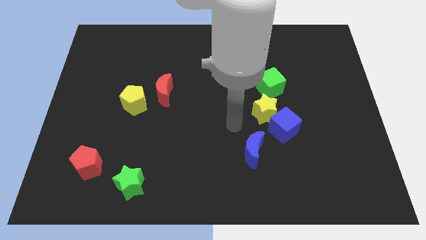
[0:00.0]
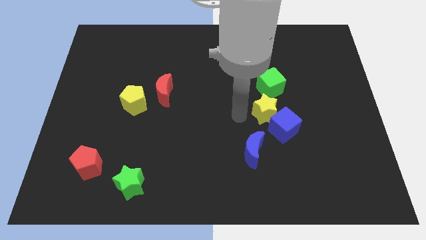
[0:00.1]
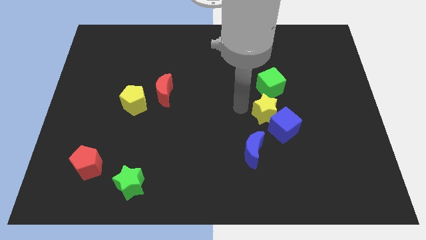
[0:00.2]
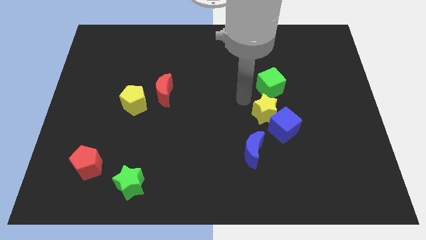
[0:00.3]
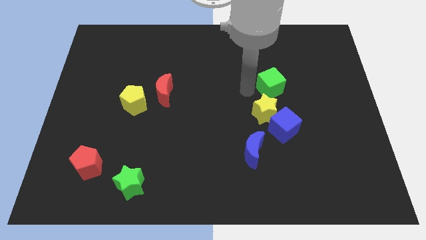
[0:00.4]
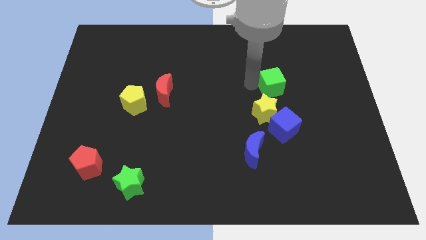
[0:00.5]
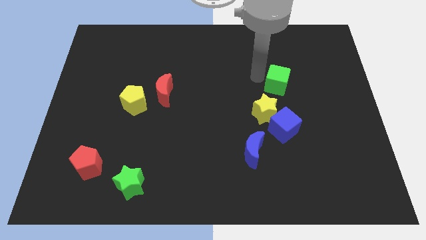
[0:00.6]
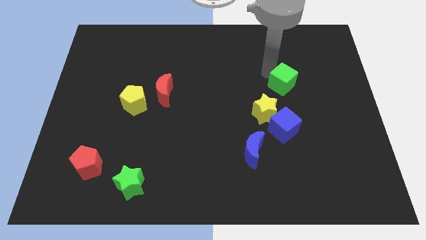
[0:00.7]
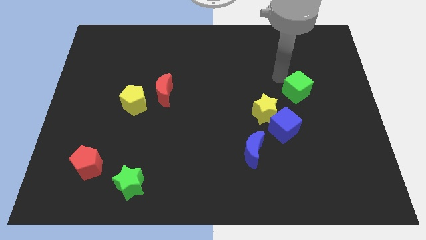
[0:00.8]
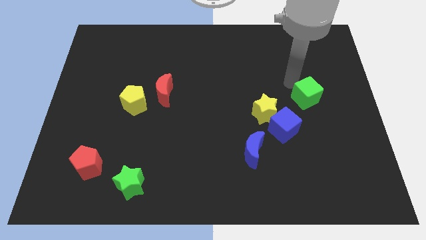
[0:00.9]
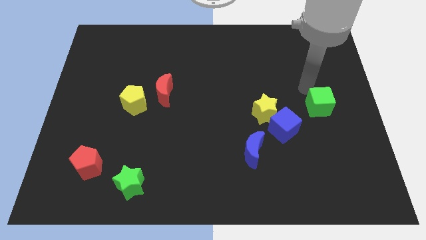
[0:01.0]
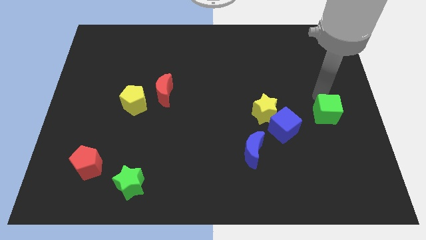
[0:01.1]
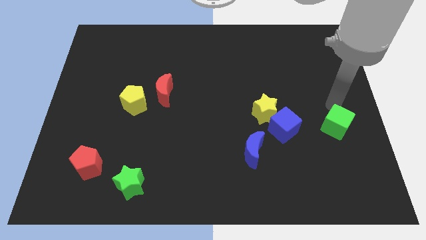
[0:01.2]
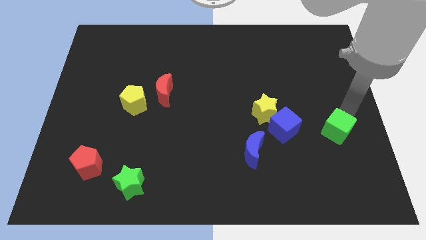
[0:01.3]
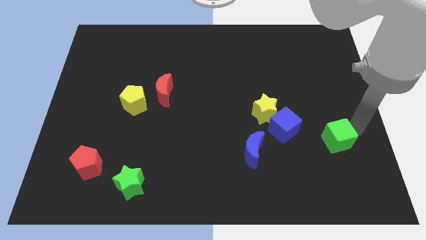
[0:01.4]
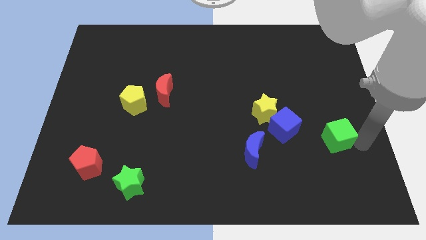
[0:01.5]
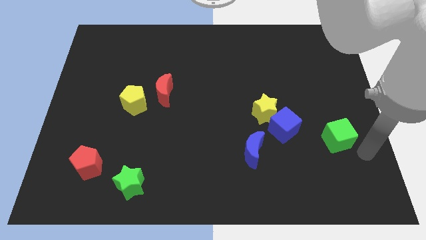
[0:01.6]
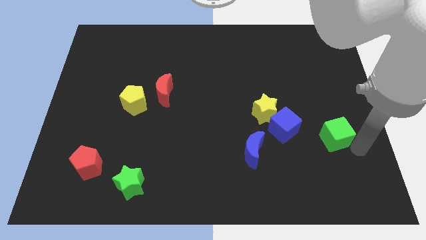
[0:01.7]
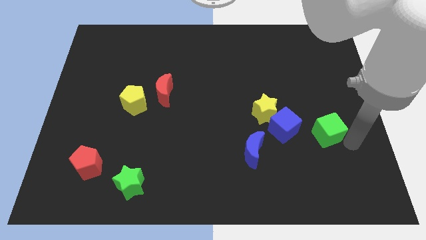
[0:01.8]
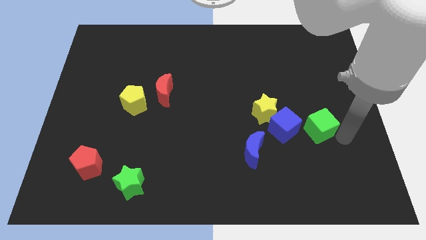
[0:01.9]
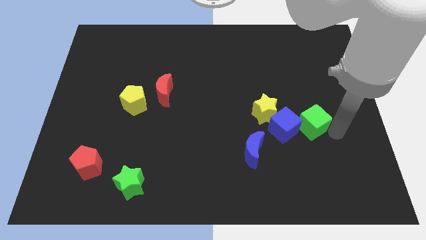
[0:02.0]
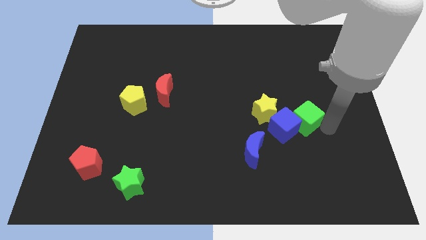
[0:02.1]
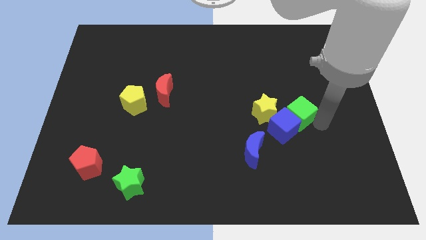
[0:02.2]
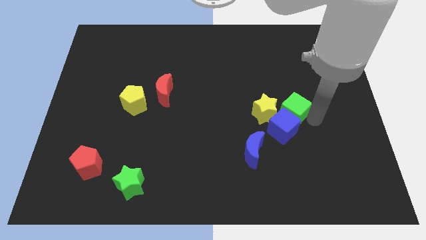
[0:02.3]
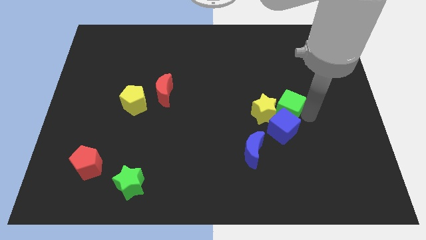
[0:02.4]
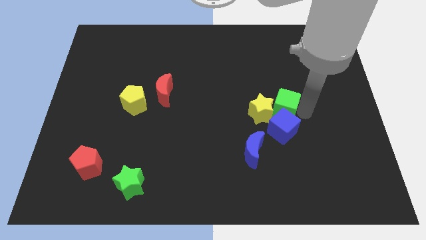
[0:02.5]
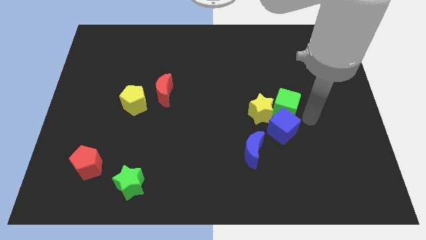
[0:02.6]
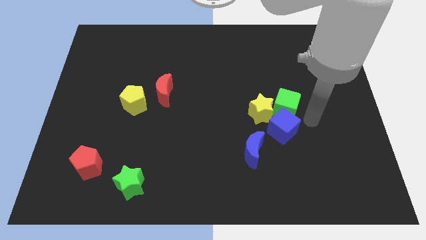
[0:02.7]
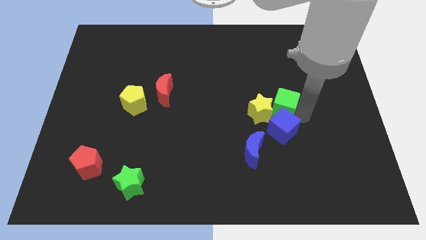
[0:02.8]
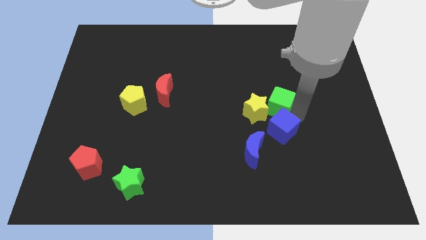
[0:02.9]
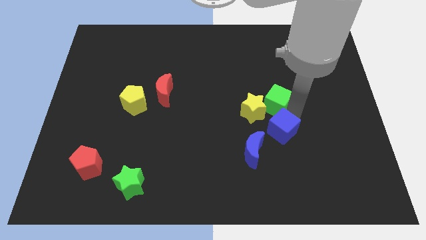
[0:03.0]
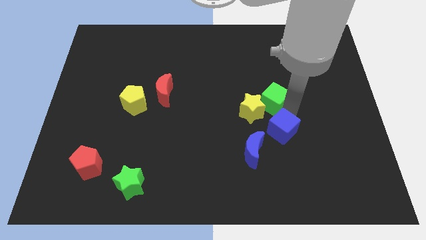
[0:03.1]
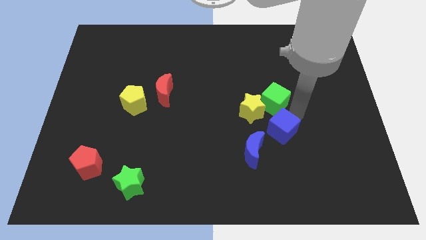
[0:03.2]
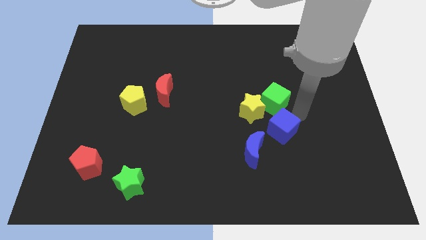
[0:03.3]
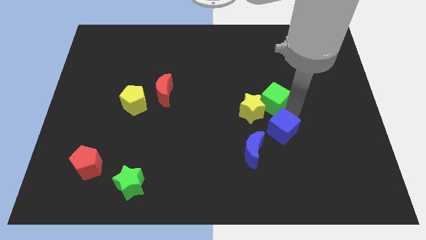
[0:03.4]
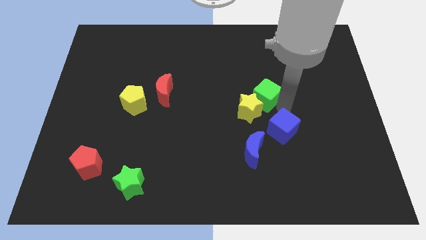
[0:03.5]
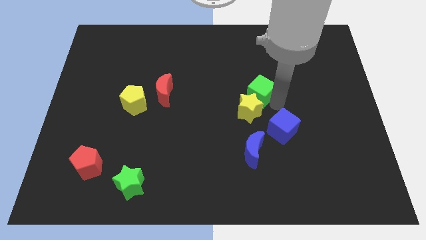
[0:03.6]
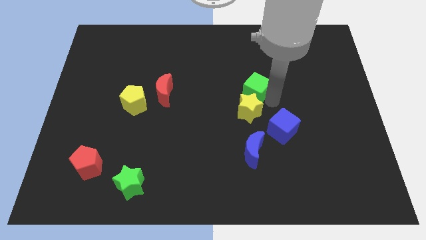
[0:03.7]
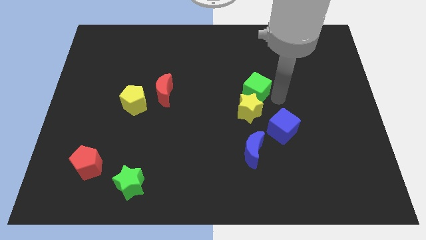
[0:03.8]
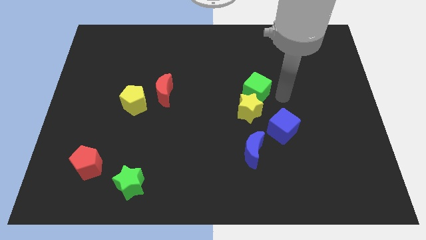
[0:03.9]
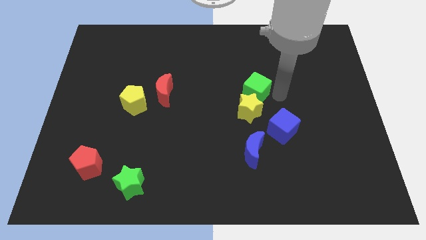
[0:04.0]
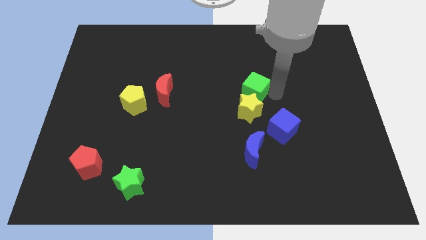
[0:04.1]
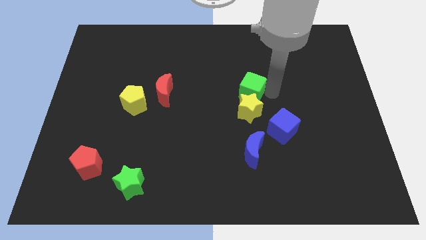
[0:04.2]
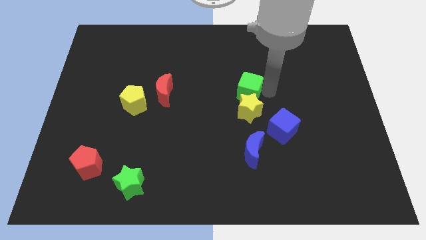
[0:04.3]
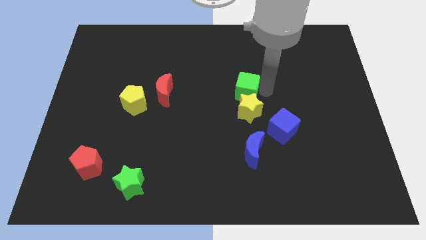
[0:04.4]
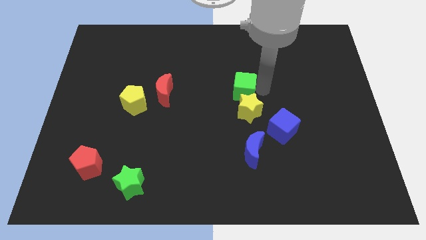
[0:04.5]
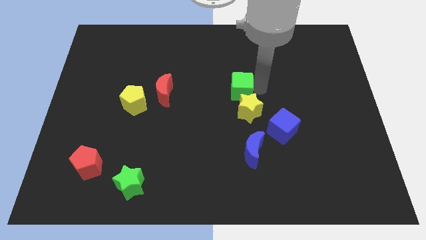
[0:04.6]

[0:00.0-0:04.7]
slightly slide the green cube left

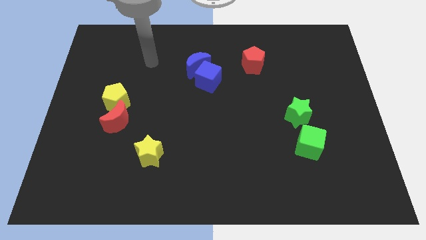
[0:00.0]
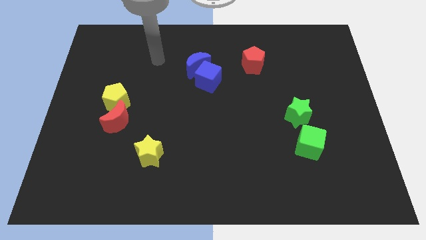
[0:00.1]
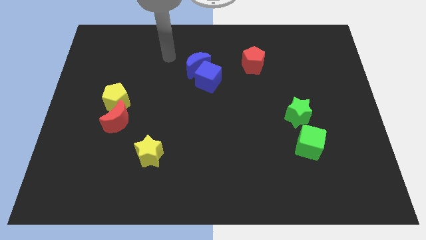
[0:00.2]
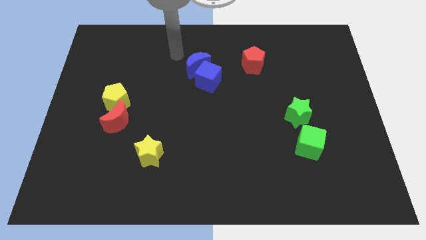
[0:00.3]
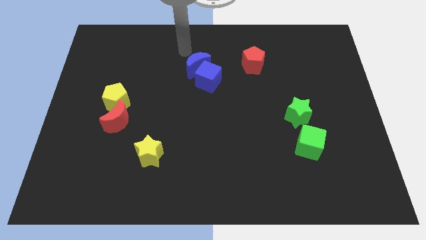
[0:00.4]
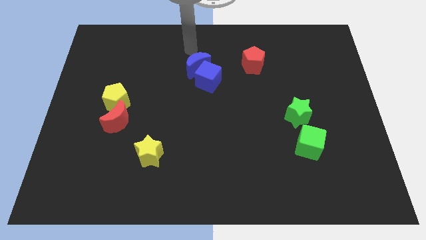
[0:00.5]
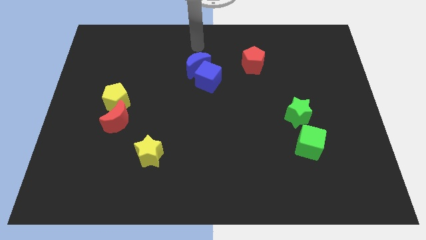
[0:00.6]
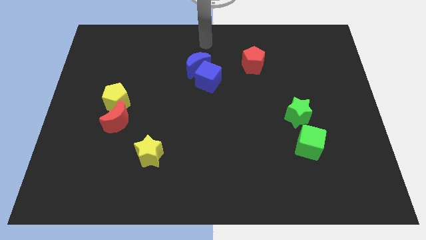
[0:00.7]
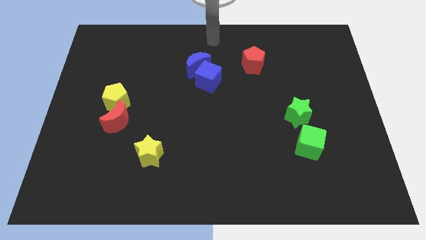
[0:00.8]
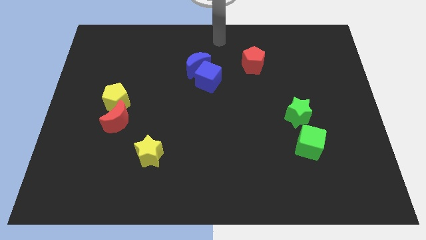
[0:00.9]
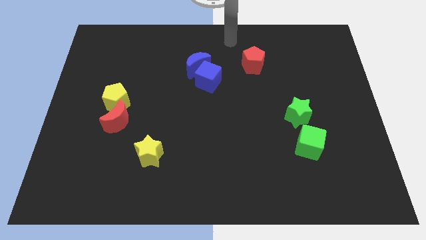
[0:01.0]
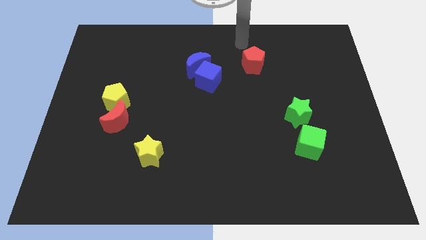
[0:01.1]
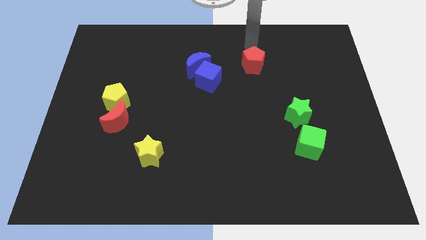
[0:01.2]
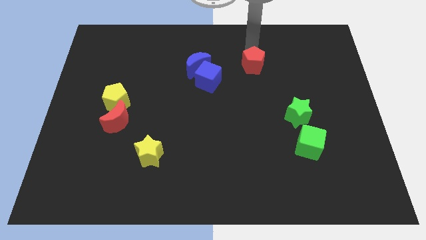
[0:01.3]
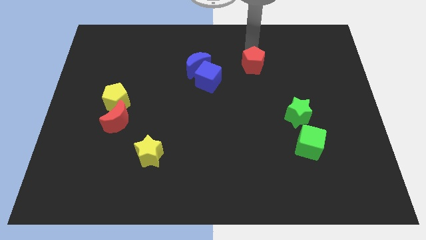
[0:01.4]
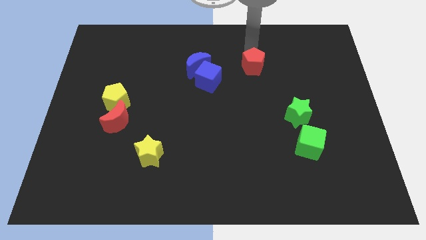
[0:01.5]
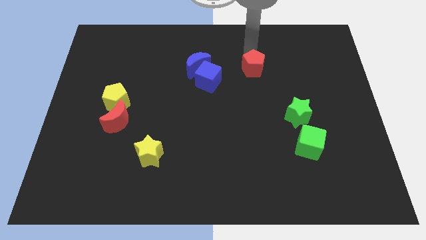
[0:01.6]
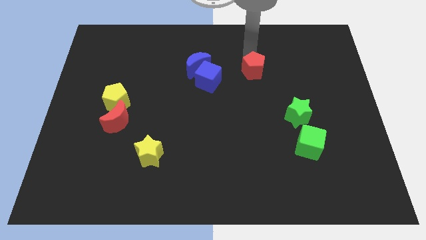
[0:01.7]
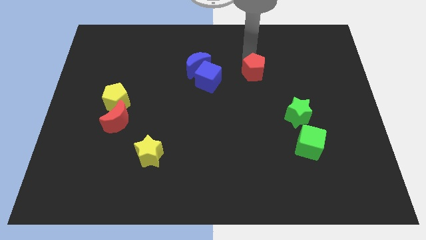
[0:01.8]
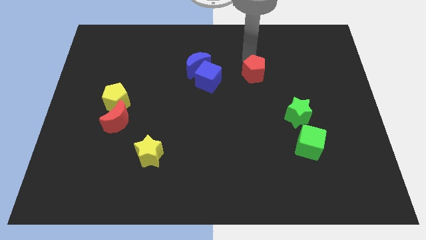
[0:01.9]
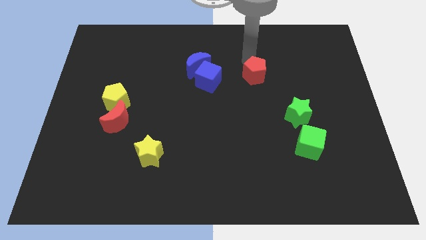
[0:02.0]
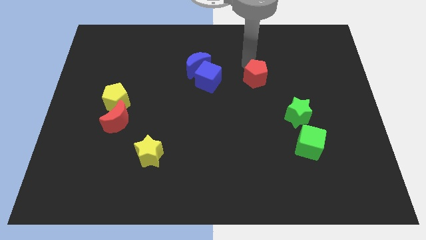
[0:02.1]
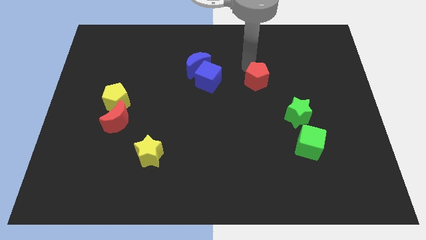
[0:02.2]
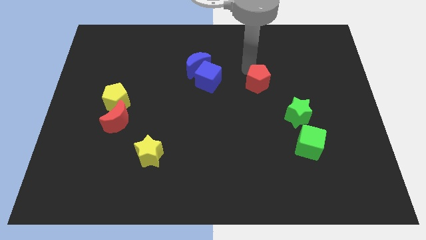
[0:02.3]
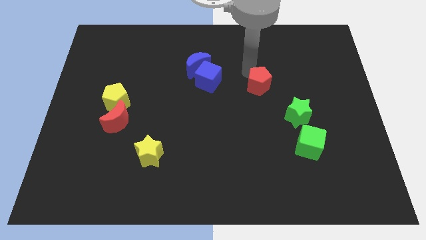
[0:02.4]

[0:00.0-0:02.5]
slightly slide the red pentagon down

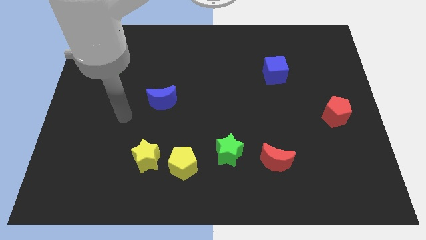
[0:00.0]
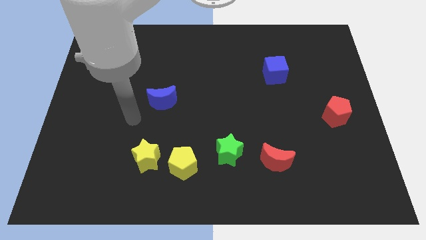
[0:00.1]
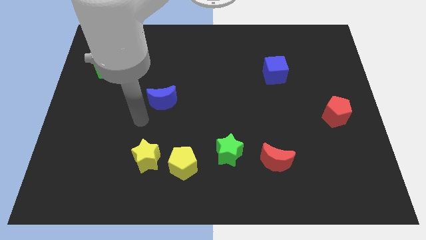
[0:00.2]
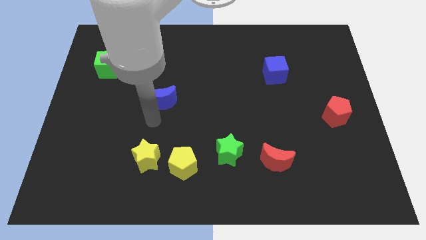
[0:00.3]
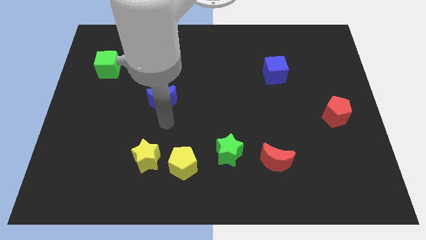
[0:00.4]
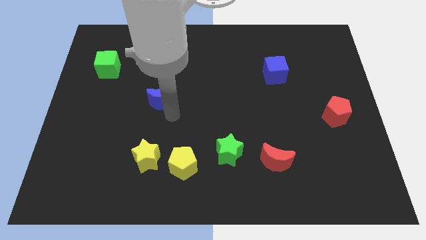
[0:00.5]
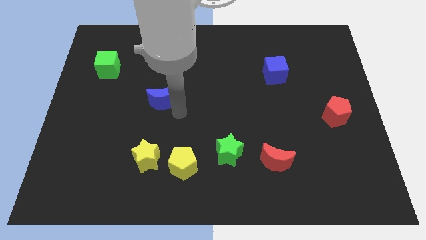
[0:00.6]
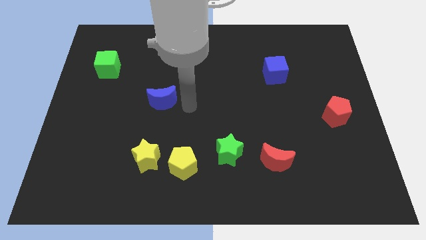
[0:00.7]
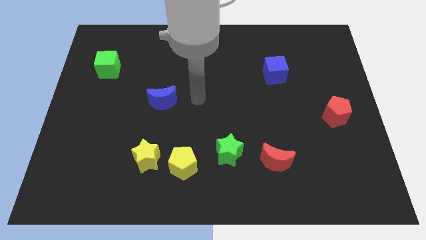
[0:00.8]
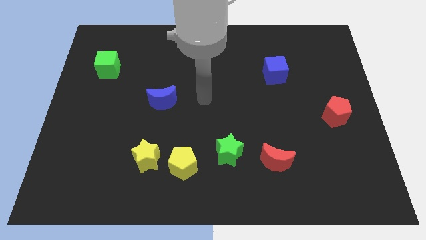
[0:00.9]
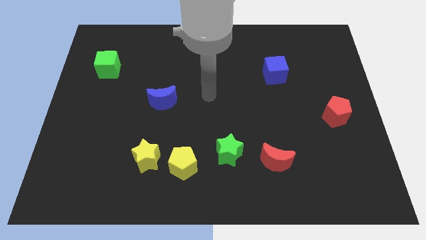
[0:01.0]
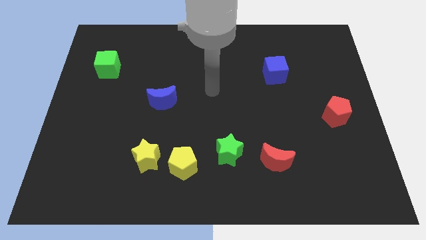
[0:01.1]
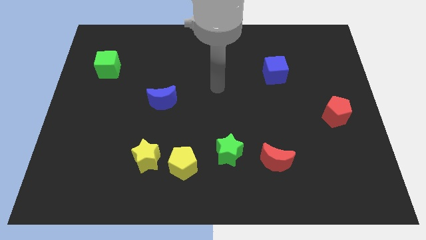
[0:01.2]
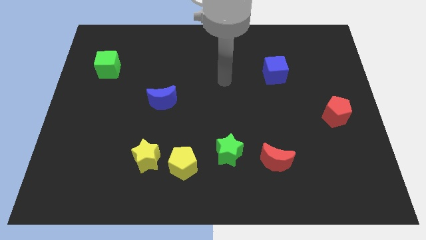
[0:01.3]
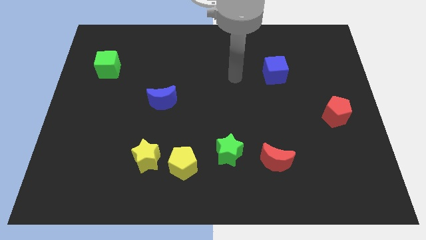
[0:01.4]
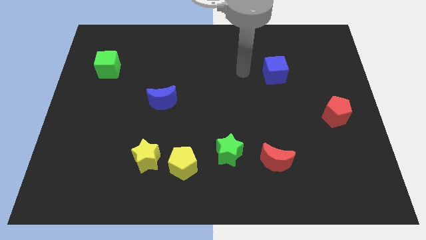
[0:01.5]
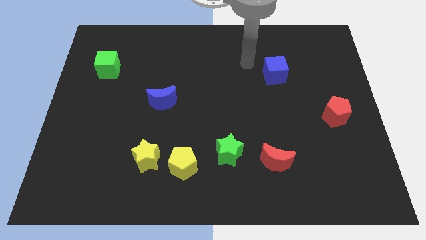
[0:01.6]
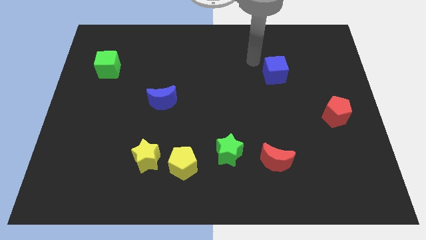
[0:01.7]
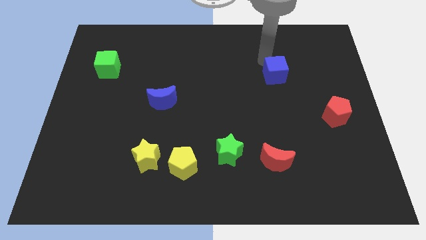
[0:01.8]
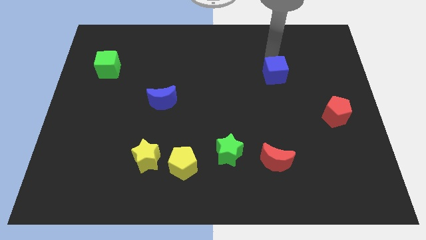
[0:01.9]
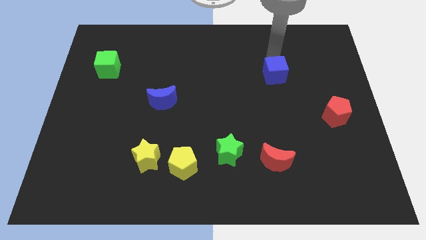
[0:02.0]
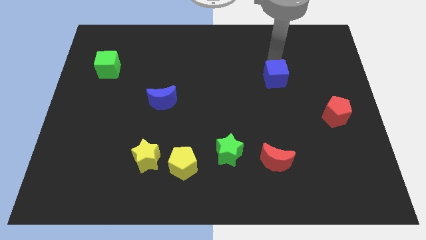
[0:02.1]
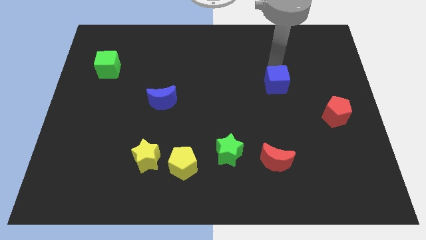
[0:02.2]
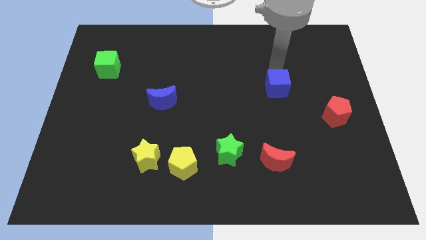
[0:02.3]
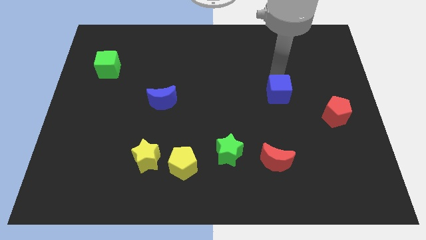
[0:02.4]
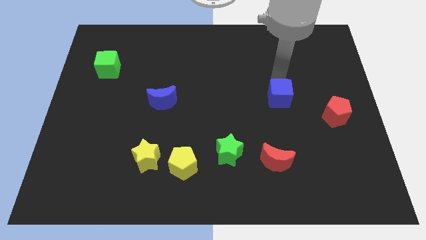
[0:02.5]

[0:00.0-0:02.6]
slide the blue cube down somewhat
